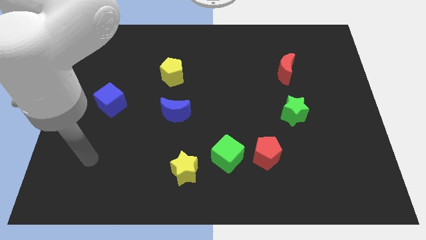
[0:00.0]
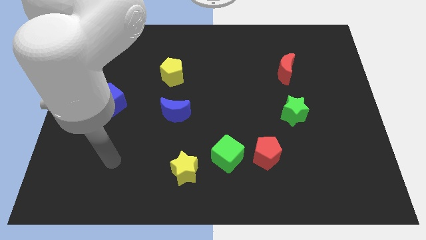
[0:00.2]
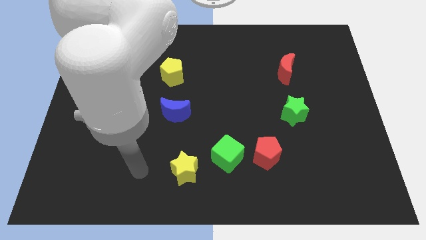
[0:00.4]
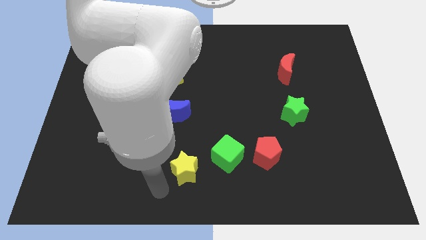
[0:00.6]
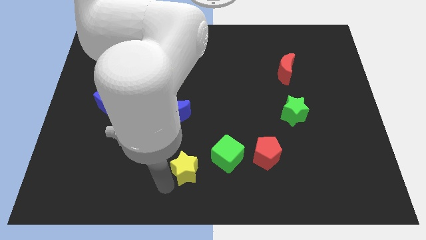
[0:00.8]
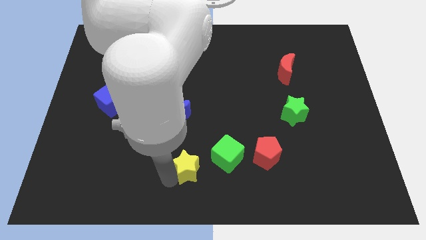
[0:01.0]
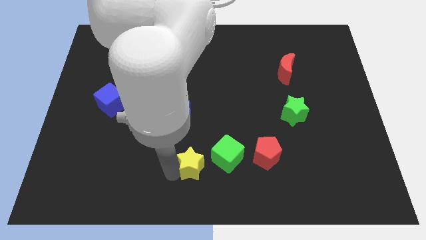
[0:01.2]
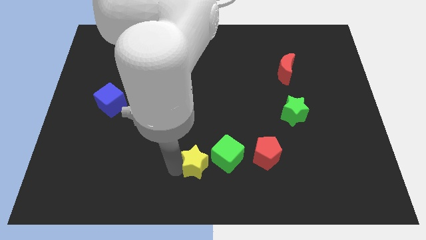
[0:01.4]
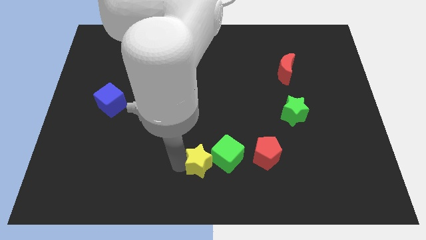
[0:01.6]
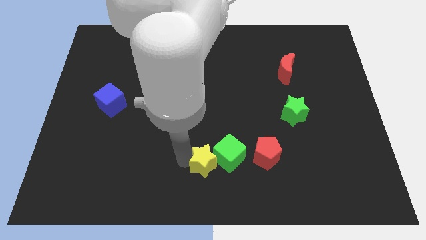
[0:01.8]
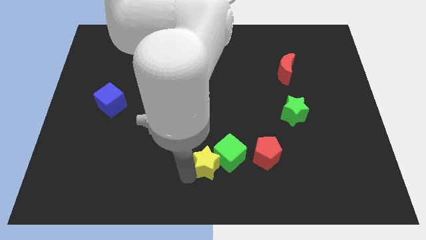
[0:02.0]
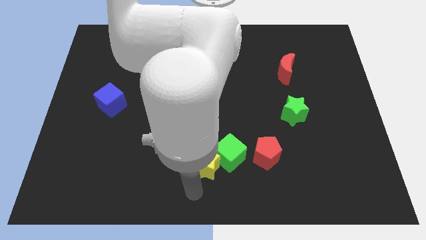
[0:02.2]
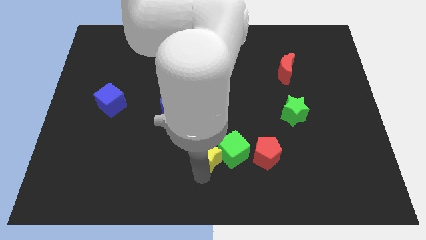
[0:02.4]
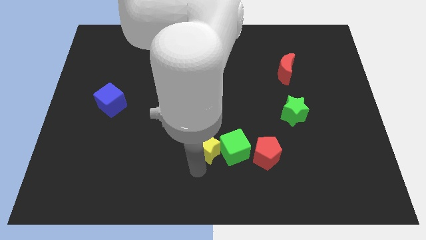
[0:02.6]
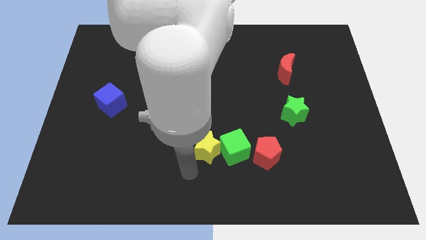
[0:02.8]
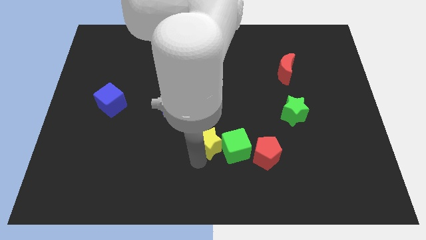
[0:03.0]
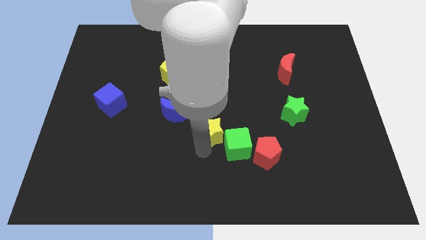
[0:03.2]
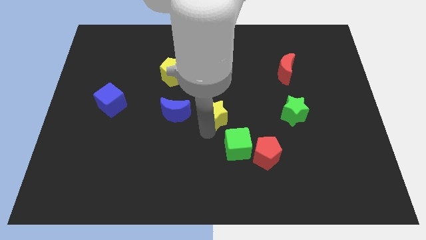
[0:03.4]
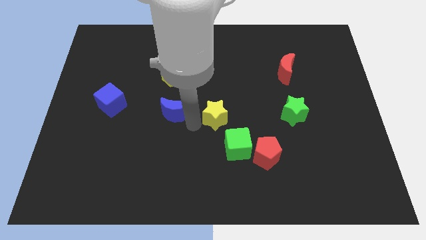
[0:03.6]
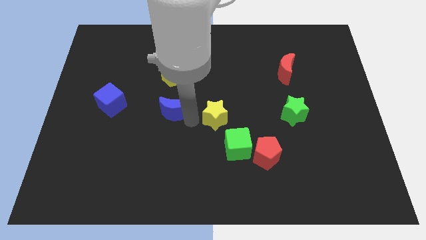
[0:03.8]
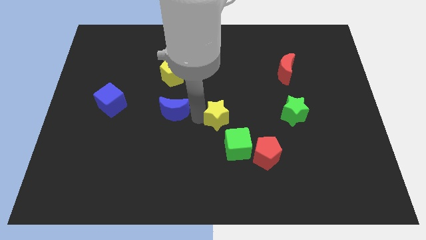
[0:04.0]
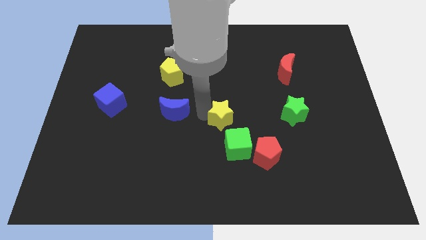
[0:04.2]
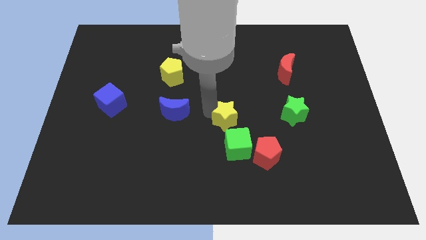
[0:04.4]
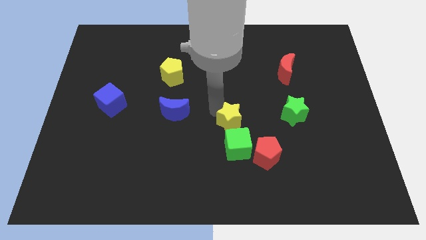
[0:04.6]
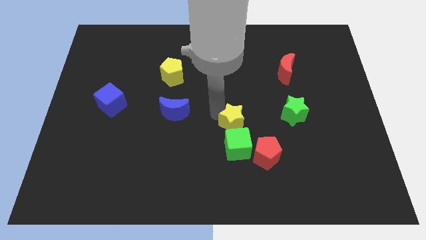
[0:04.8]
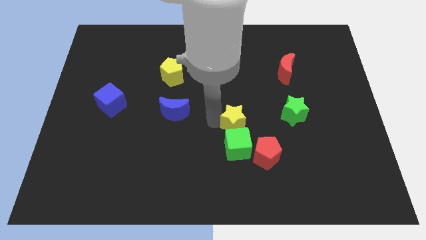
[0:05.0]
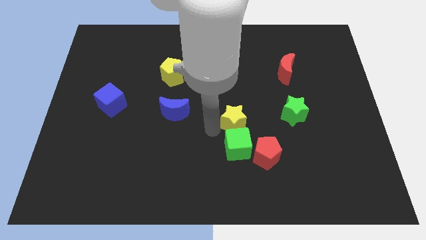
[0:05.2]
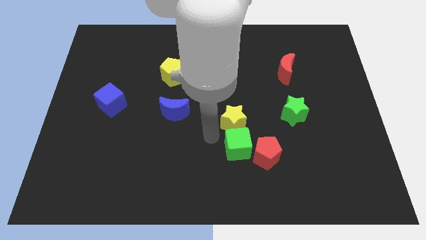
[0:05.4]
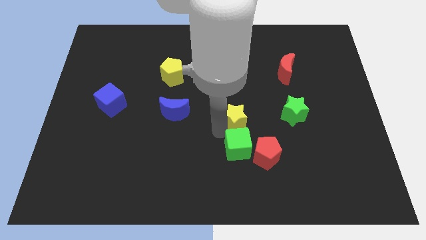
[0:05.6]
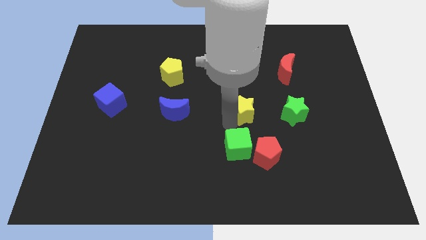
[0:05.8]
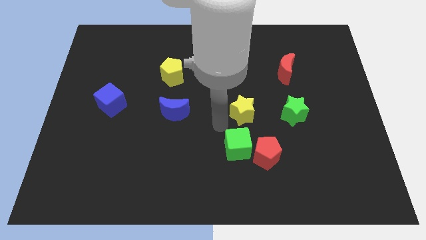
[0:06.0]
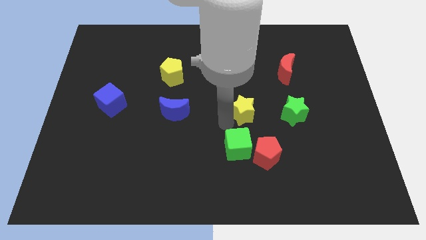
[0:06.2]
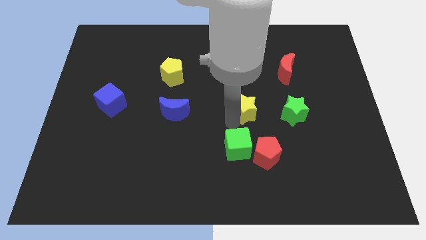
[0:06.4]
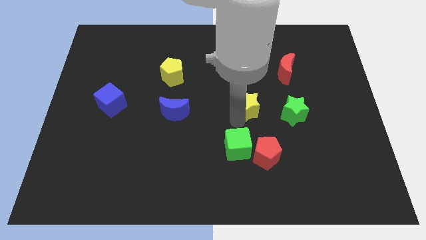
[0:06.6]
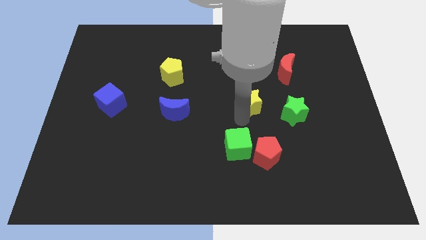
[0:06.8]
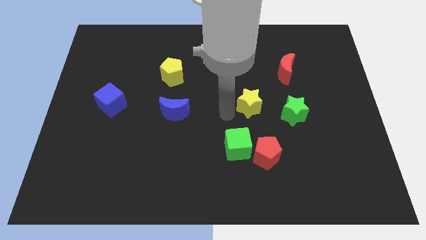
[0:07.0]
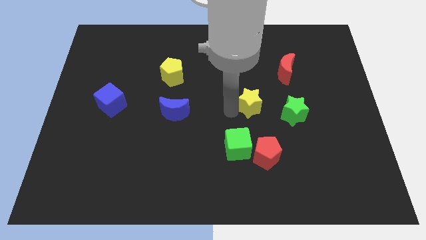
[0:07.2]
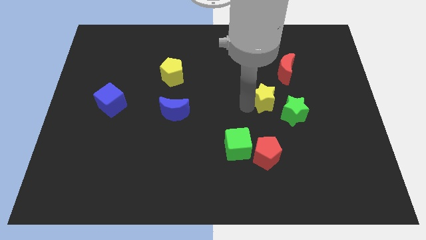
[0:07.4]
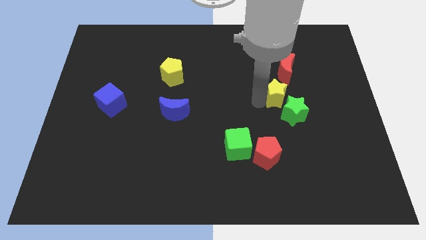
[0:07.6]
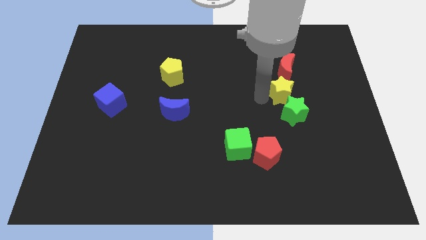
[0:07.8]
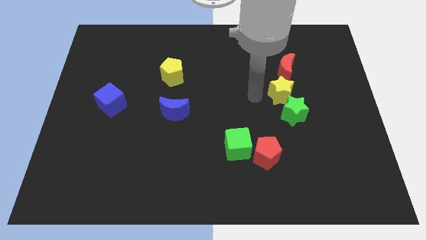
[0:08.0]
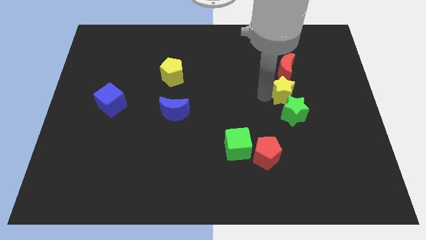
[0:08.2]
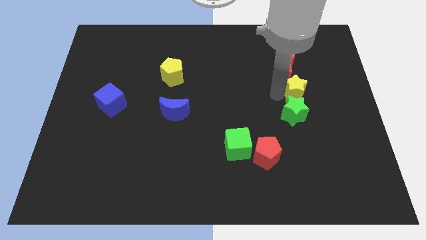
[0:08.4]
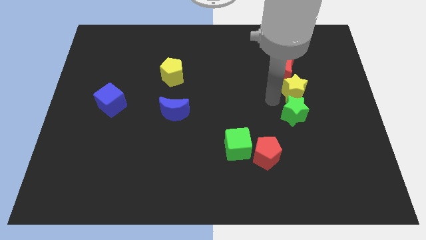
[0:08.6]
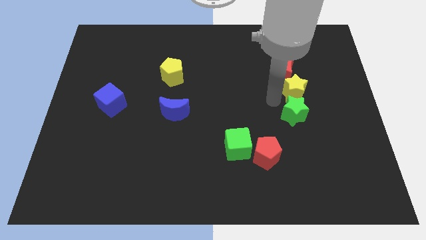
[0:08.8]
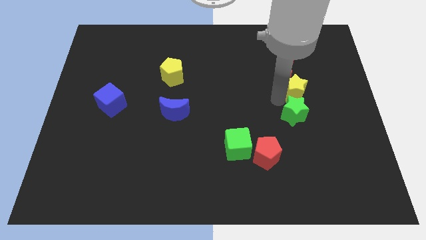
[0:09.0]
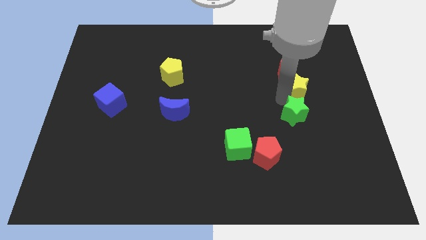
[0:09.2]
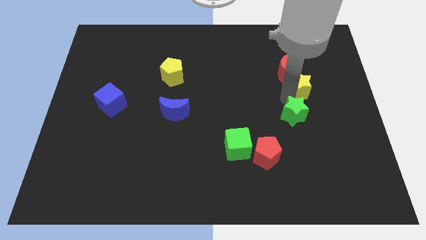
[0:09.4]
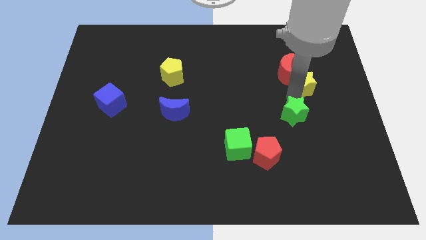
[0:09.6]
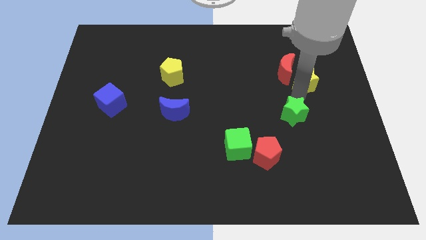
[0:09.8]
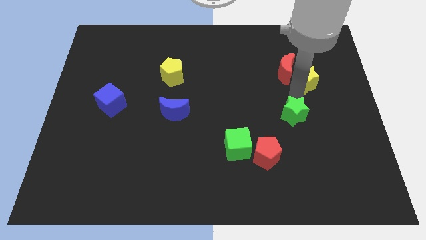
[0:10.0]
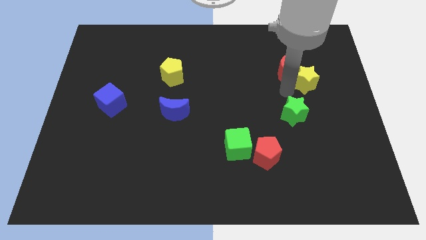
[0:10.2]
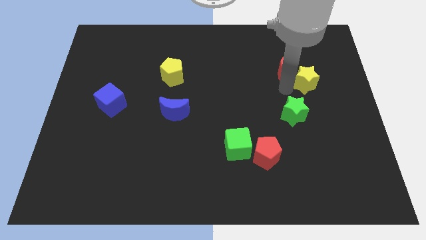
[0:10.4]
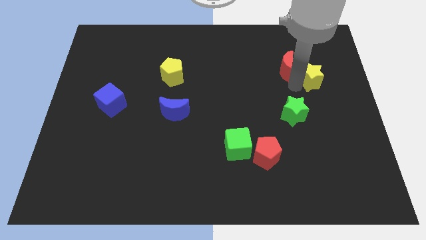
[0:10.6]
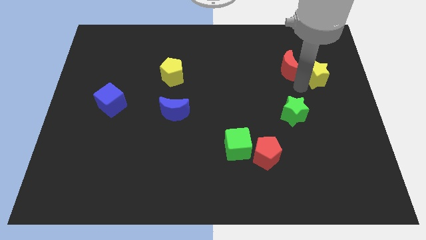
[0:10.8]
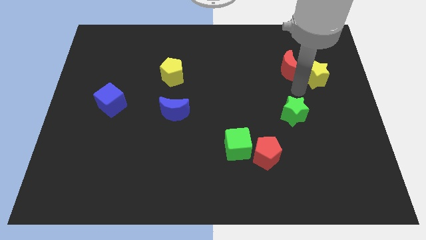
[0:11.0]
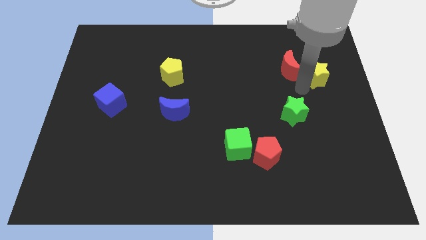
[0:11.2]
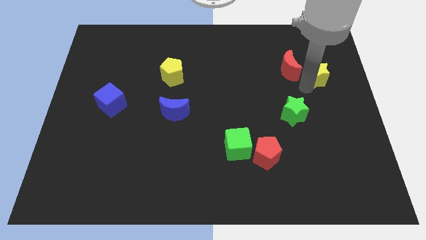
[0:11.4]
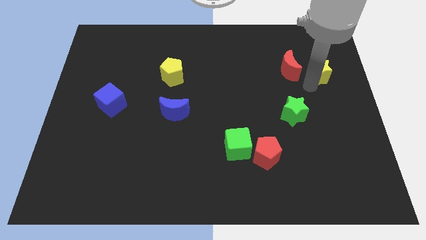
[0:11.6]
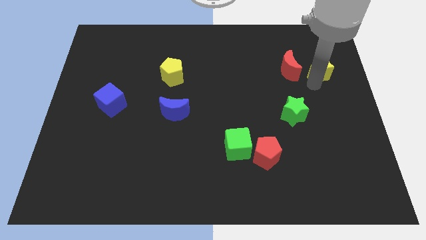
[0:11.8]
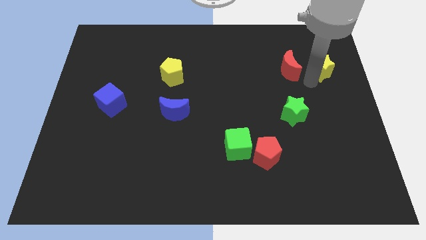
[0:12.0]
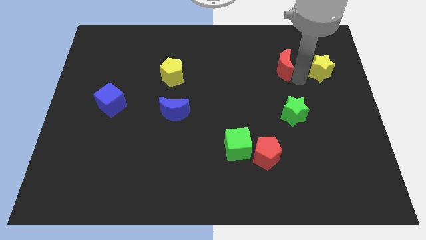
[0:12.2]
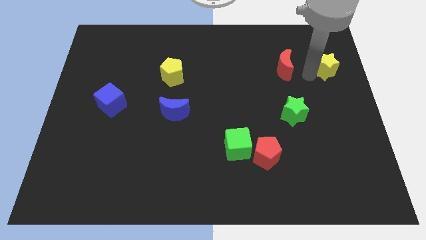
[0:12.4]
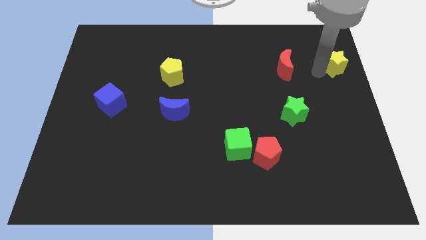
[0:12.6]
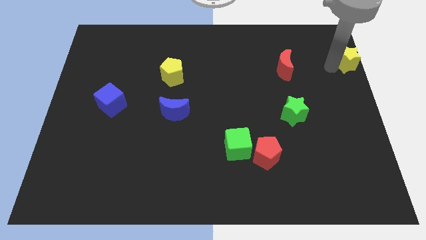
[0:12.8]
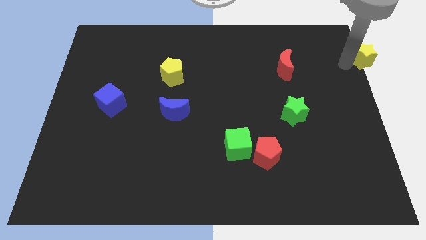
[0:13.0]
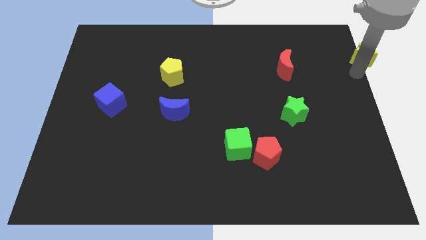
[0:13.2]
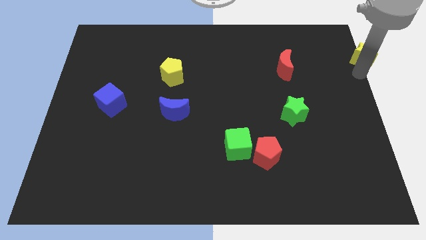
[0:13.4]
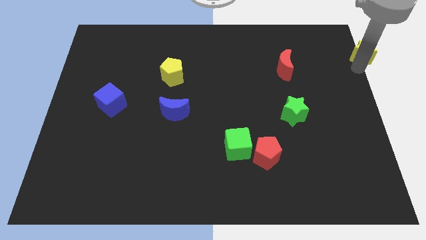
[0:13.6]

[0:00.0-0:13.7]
move the yellow star to the upper right corner
